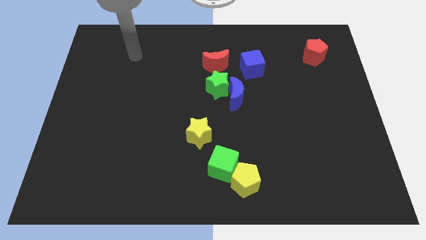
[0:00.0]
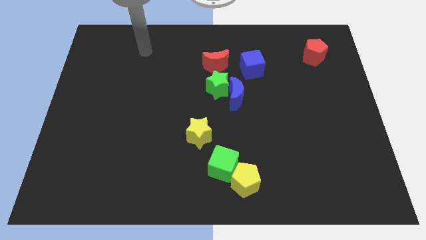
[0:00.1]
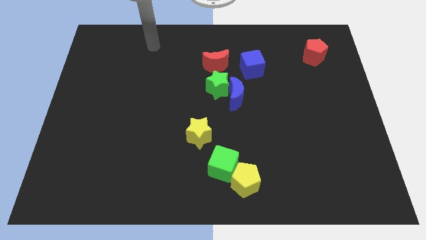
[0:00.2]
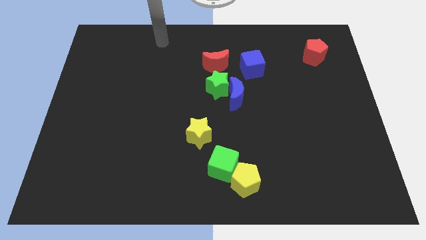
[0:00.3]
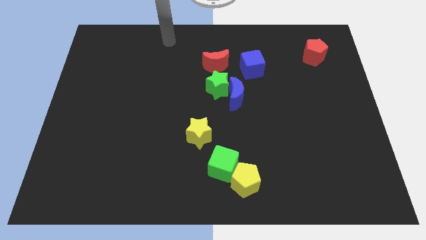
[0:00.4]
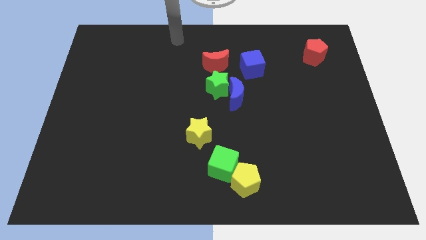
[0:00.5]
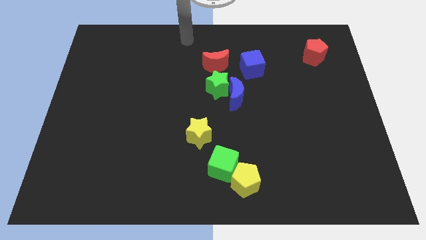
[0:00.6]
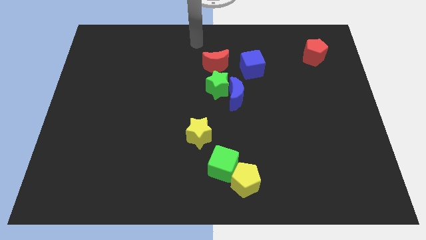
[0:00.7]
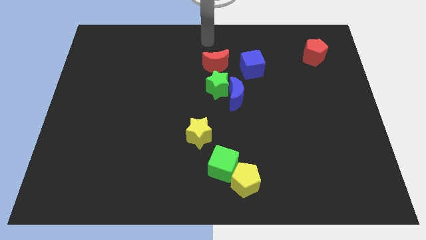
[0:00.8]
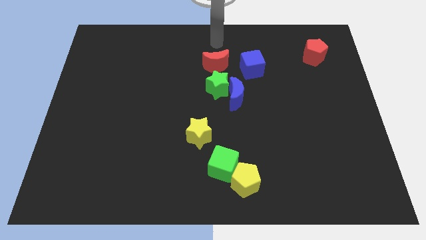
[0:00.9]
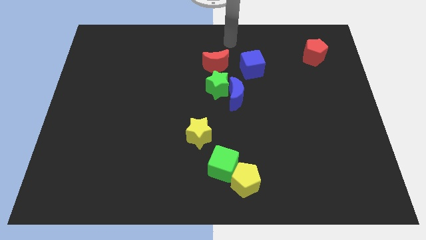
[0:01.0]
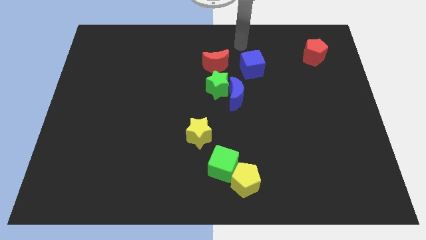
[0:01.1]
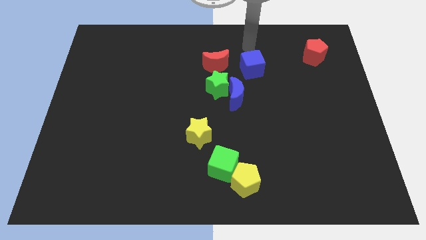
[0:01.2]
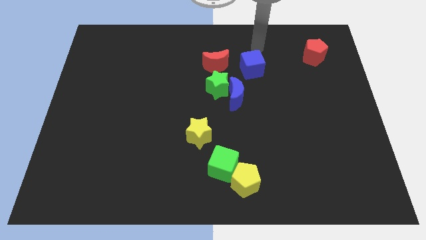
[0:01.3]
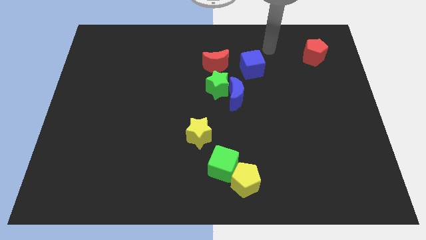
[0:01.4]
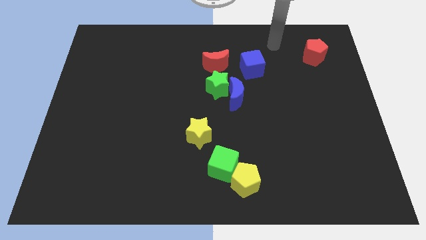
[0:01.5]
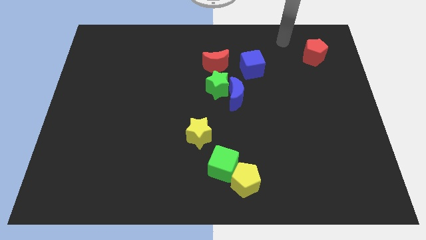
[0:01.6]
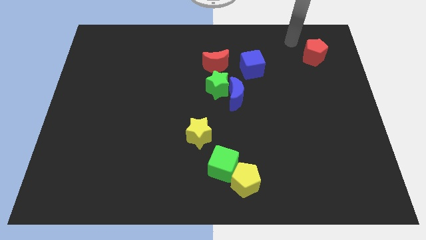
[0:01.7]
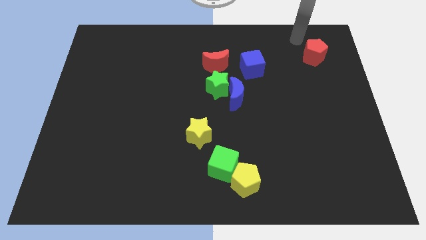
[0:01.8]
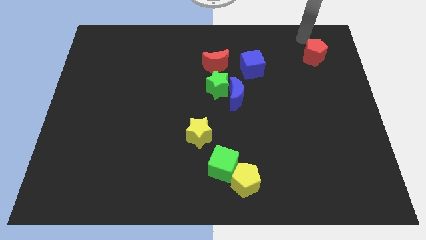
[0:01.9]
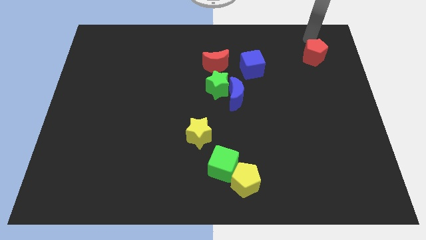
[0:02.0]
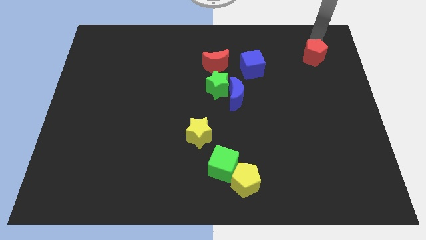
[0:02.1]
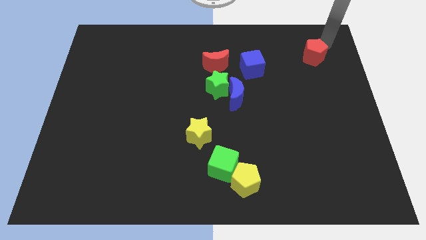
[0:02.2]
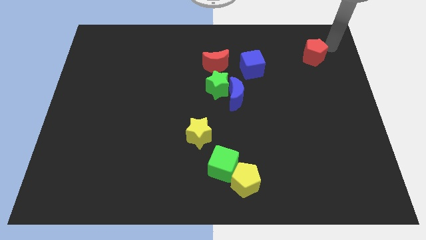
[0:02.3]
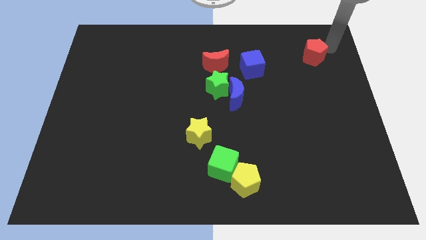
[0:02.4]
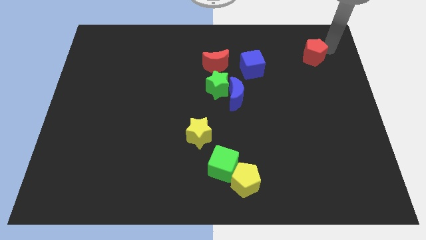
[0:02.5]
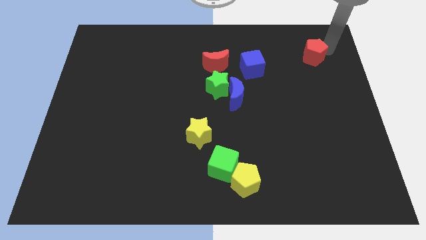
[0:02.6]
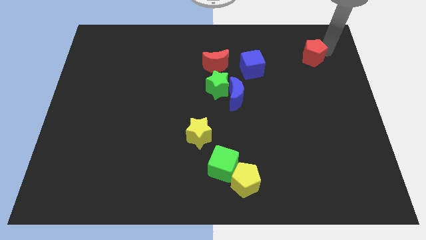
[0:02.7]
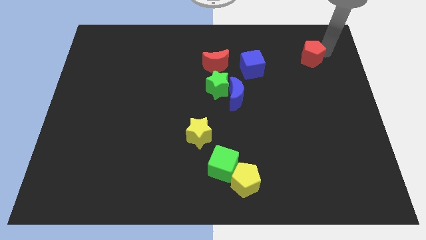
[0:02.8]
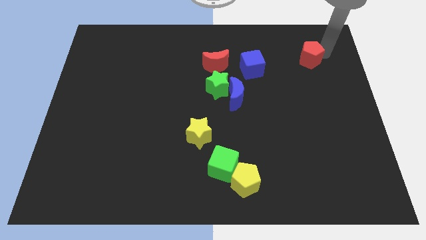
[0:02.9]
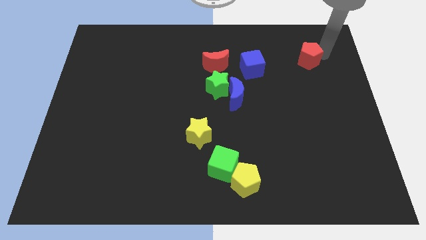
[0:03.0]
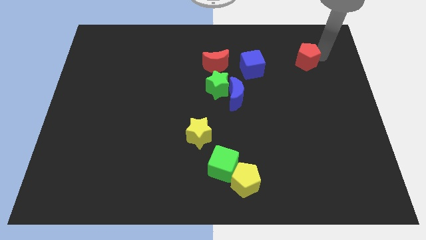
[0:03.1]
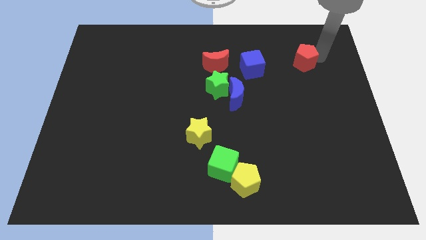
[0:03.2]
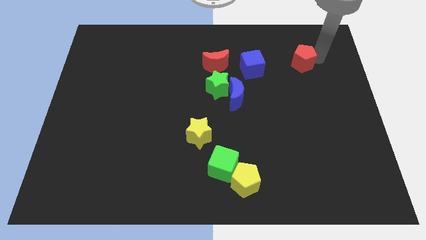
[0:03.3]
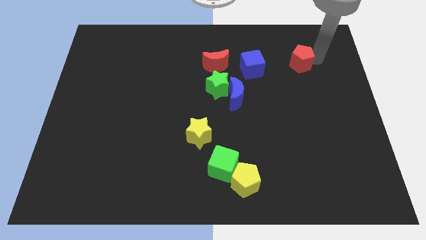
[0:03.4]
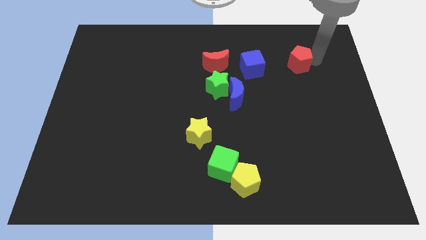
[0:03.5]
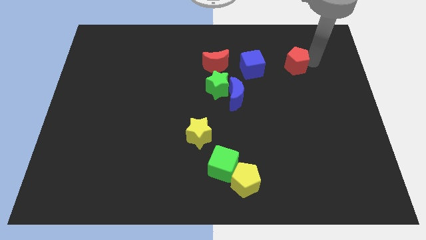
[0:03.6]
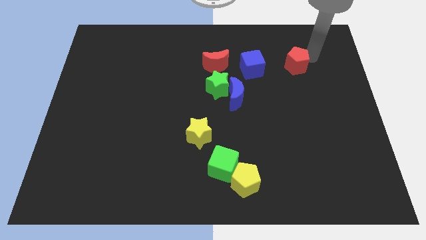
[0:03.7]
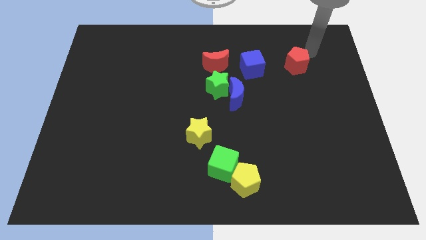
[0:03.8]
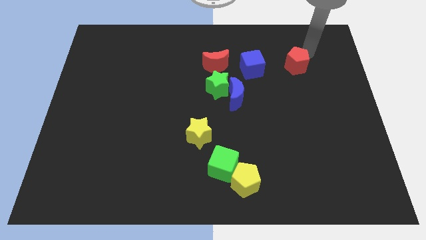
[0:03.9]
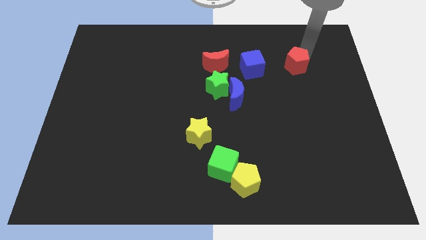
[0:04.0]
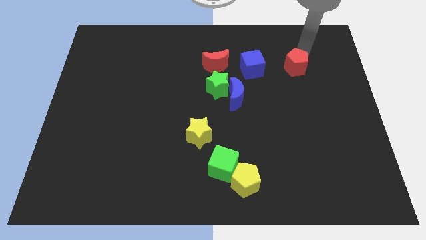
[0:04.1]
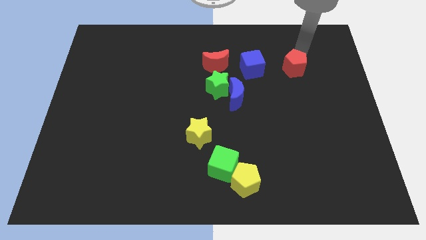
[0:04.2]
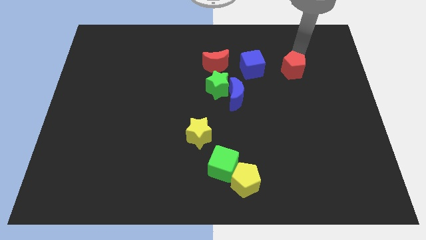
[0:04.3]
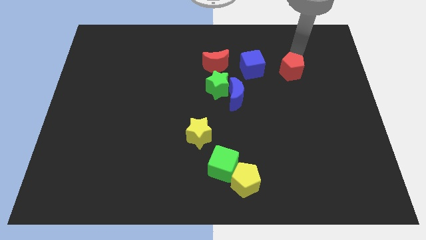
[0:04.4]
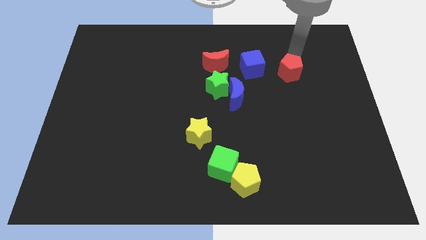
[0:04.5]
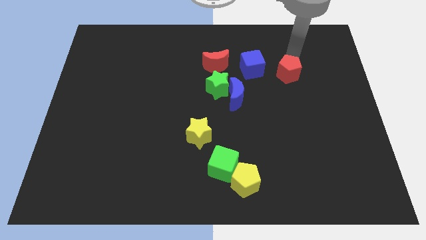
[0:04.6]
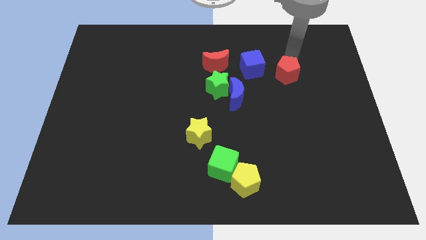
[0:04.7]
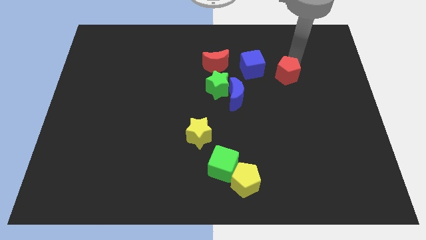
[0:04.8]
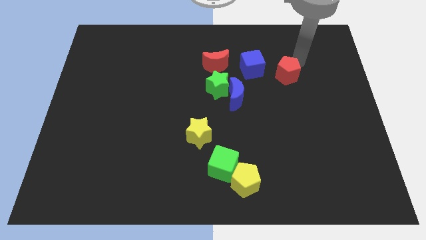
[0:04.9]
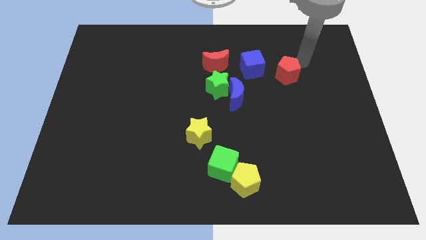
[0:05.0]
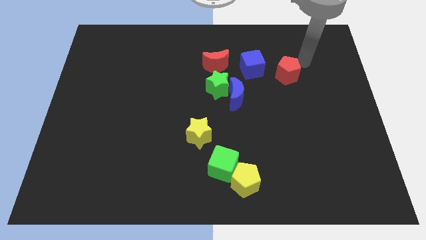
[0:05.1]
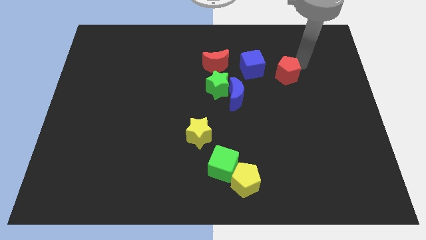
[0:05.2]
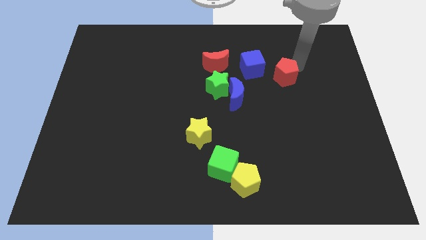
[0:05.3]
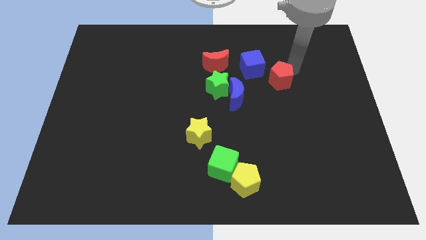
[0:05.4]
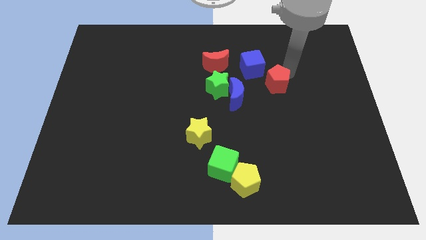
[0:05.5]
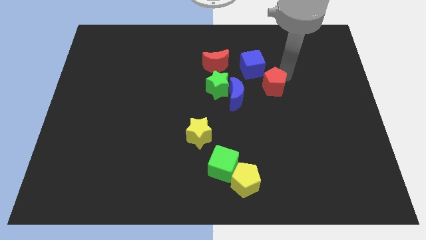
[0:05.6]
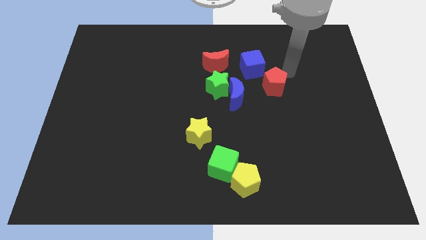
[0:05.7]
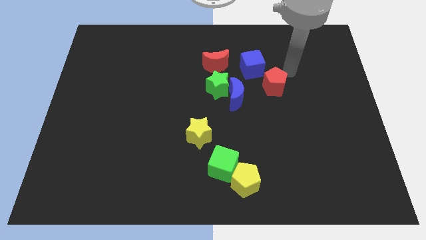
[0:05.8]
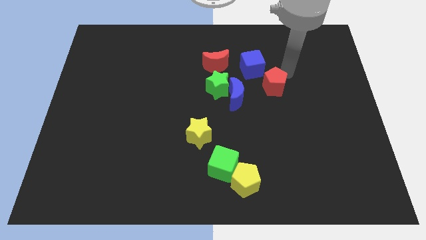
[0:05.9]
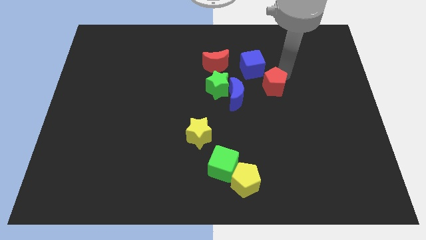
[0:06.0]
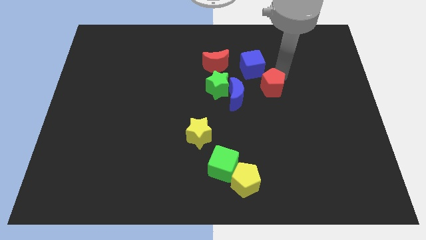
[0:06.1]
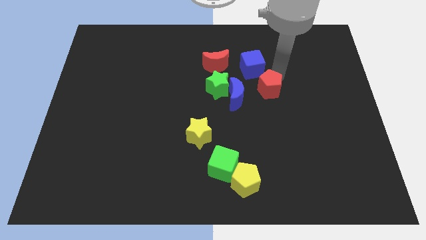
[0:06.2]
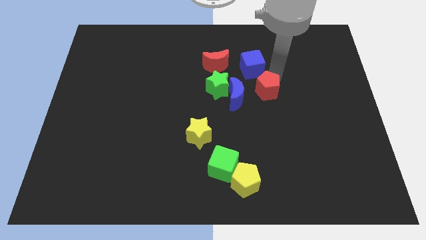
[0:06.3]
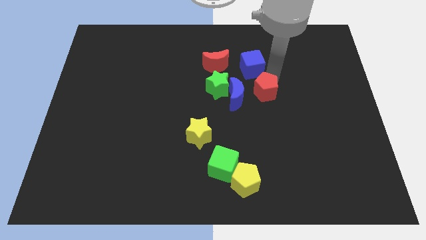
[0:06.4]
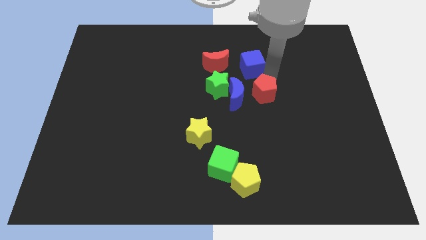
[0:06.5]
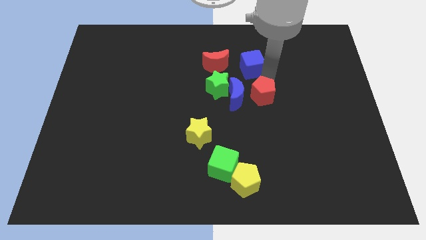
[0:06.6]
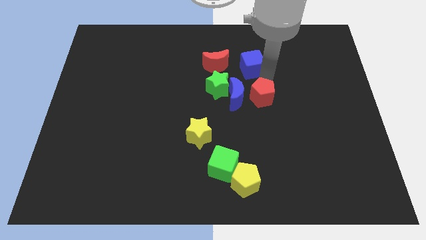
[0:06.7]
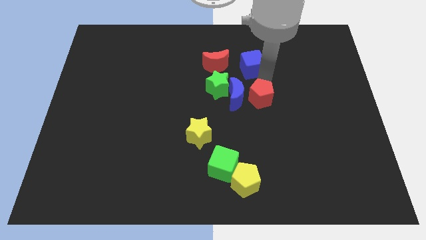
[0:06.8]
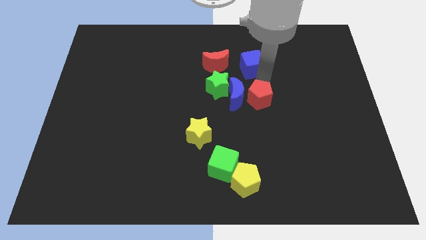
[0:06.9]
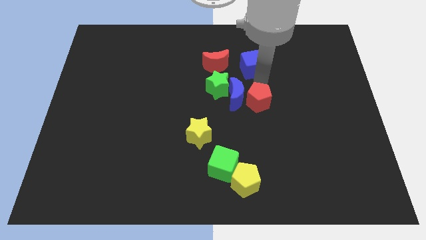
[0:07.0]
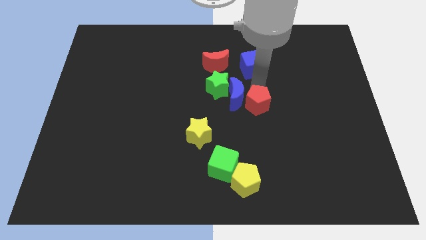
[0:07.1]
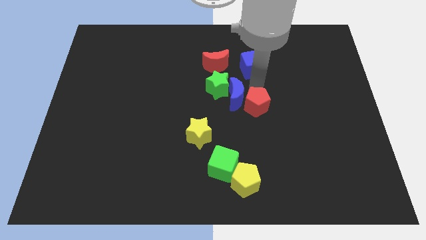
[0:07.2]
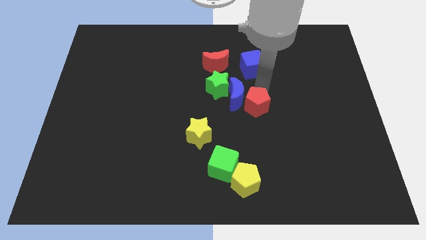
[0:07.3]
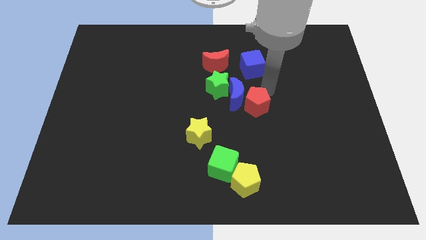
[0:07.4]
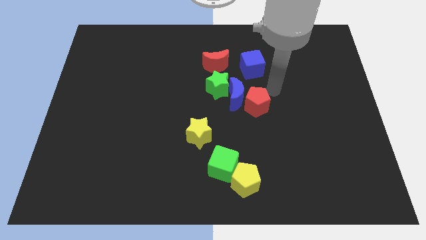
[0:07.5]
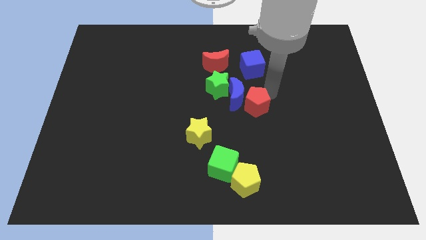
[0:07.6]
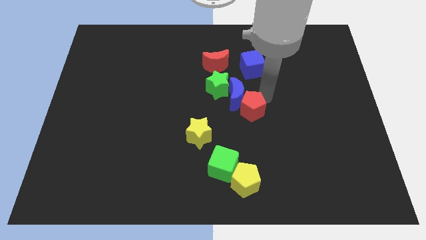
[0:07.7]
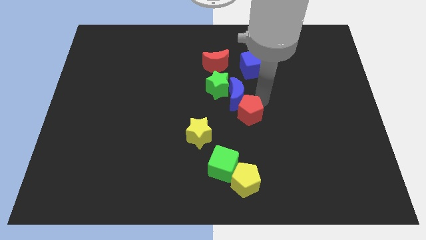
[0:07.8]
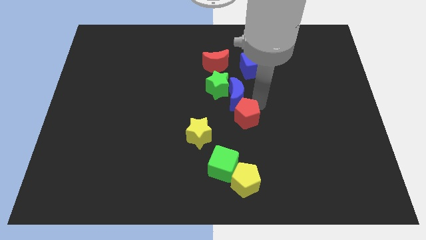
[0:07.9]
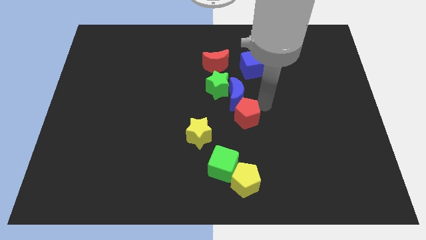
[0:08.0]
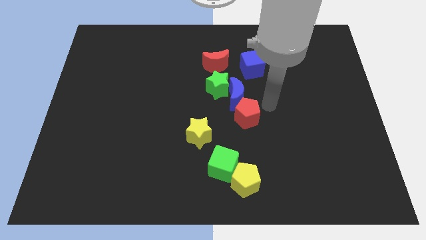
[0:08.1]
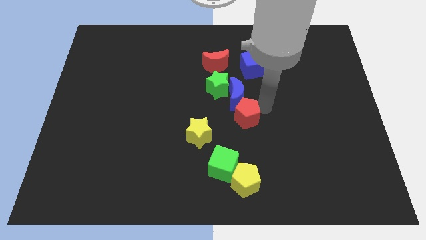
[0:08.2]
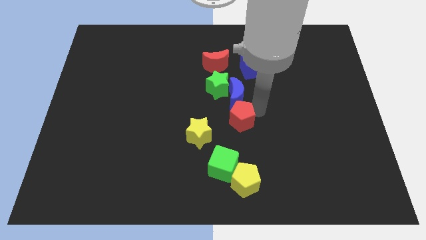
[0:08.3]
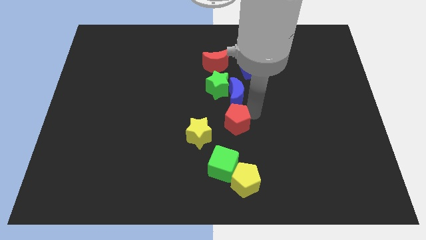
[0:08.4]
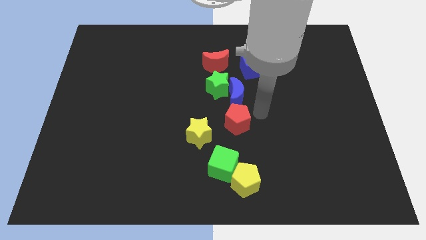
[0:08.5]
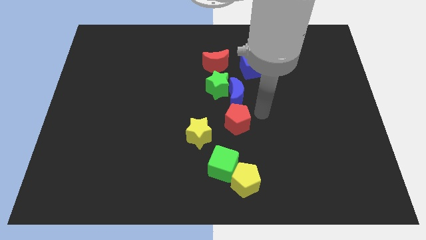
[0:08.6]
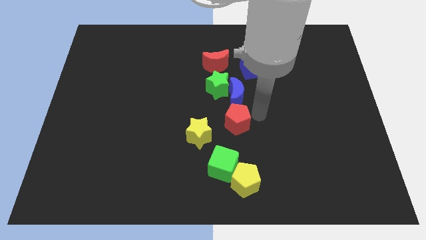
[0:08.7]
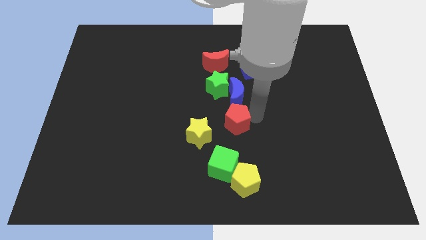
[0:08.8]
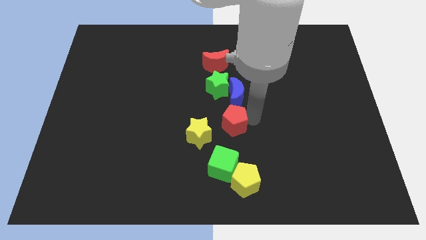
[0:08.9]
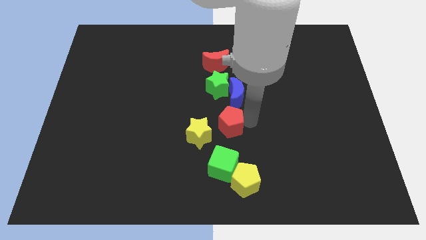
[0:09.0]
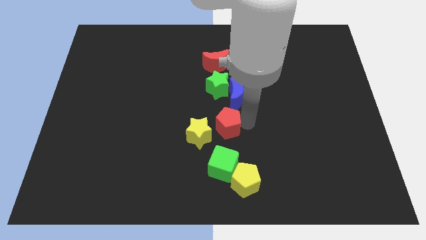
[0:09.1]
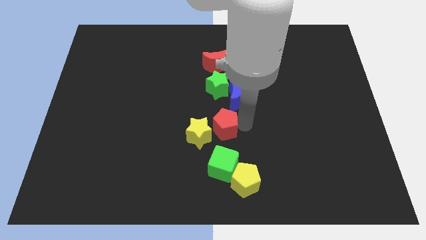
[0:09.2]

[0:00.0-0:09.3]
slide the red pentagon to the yellow star
